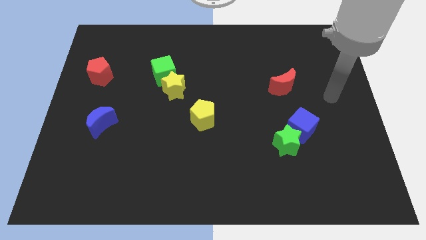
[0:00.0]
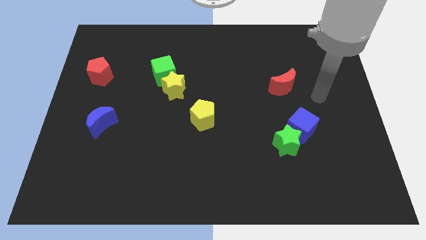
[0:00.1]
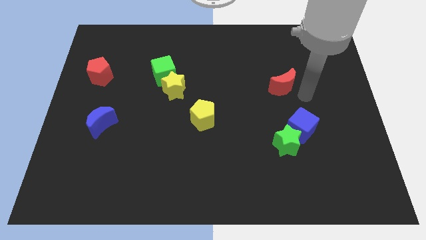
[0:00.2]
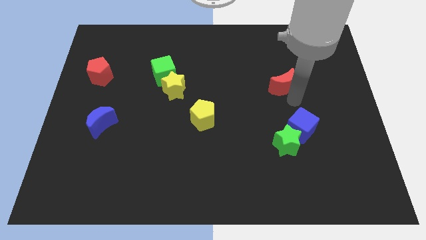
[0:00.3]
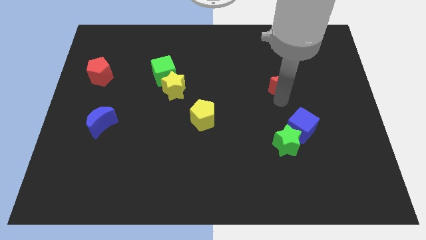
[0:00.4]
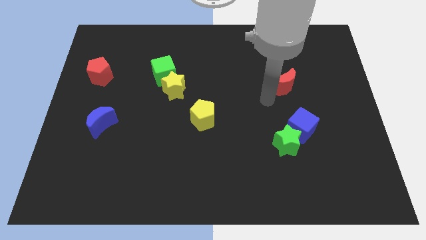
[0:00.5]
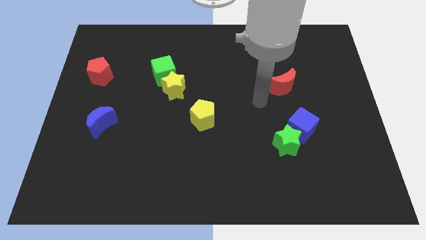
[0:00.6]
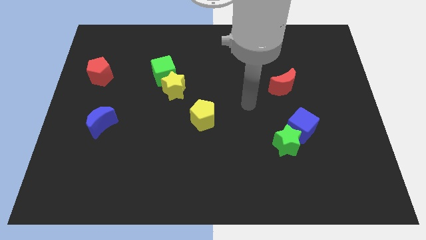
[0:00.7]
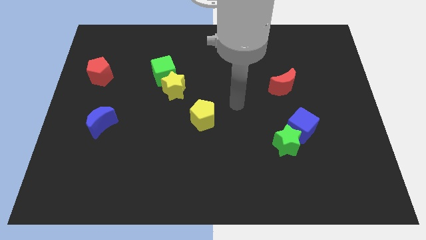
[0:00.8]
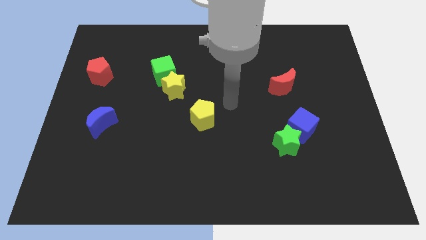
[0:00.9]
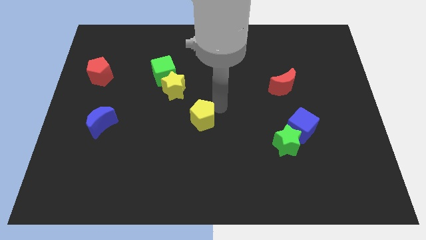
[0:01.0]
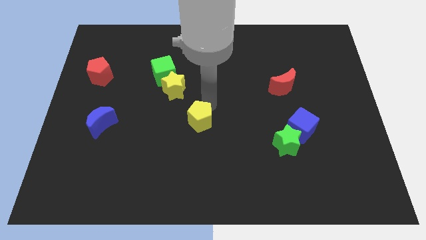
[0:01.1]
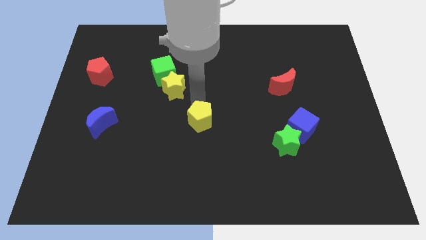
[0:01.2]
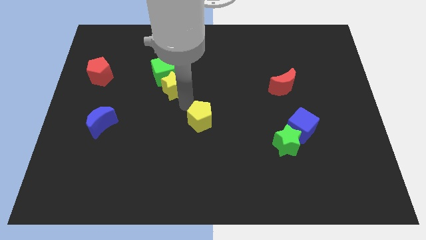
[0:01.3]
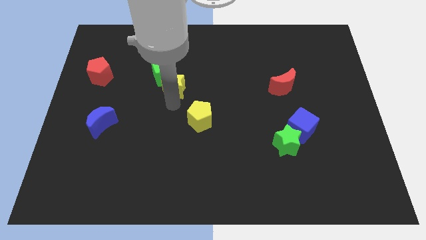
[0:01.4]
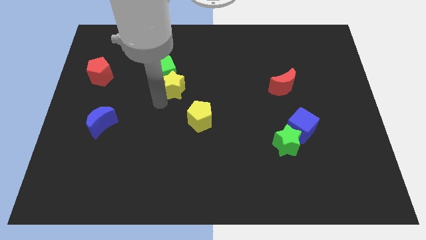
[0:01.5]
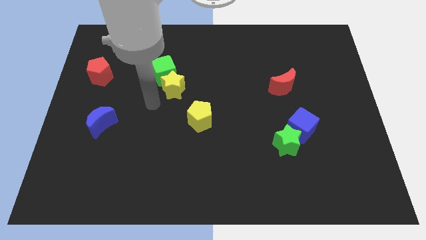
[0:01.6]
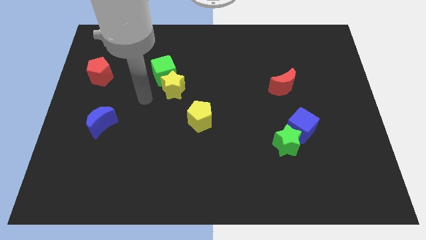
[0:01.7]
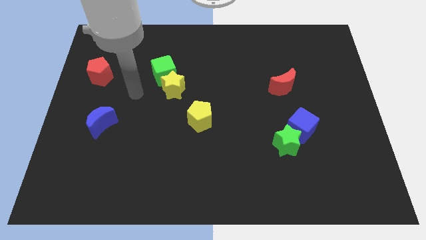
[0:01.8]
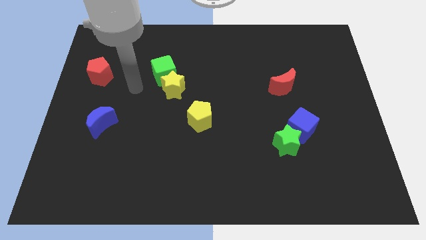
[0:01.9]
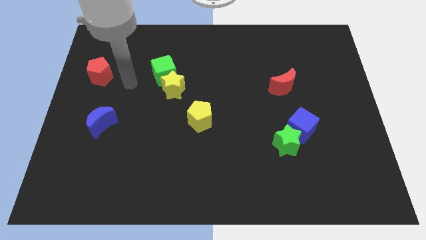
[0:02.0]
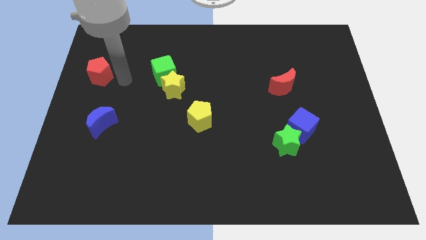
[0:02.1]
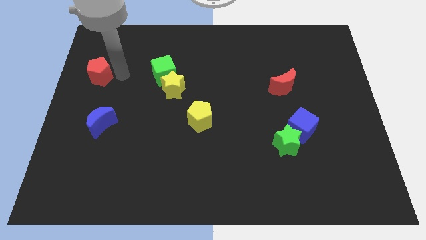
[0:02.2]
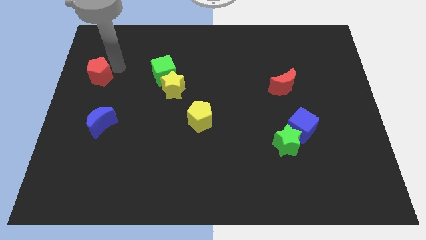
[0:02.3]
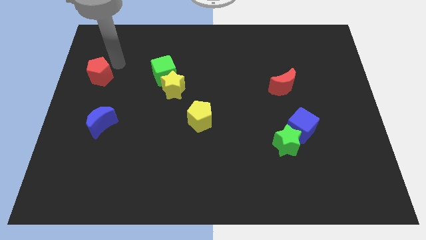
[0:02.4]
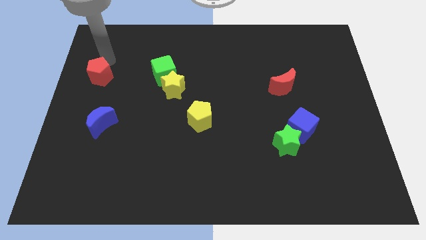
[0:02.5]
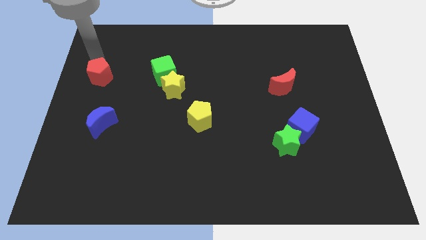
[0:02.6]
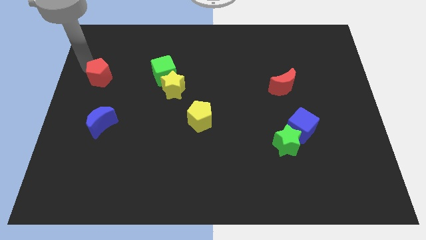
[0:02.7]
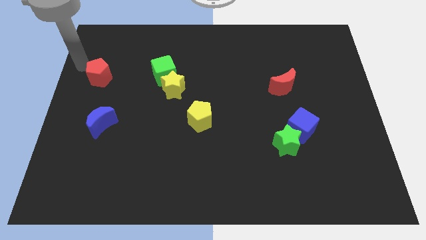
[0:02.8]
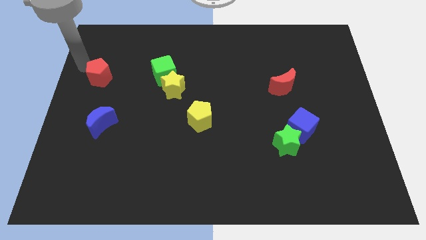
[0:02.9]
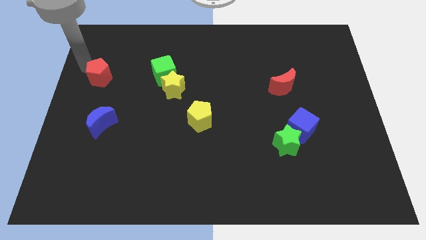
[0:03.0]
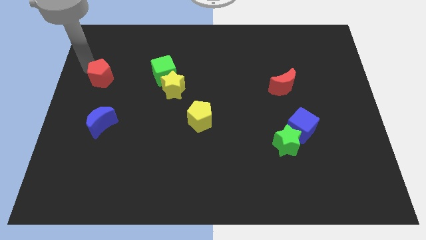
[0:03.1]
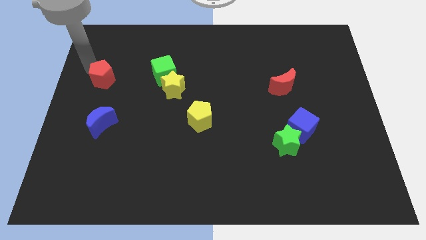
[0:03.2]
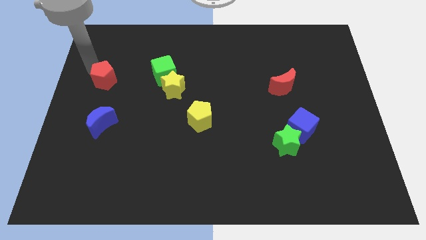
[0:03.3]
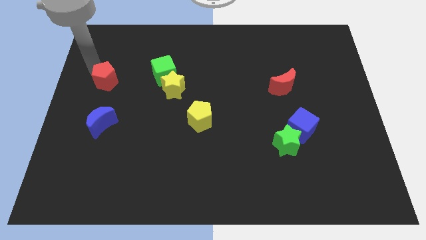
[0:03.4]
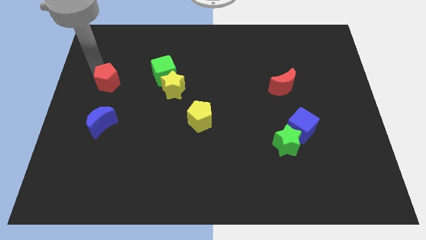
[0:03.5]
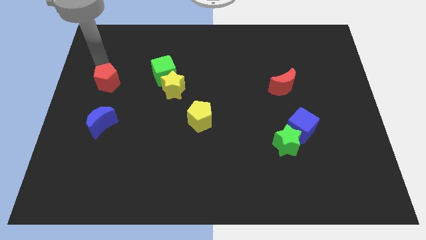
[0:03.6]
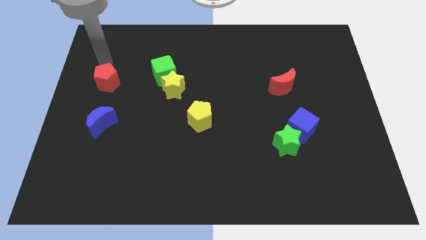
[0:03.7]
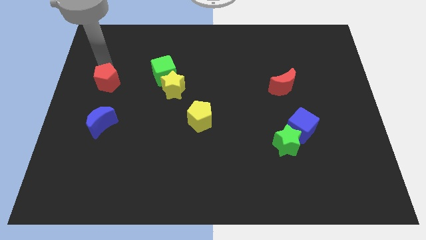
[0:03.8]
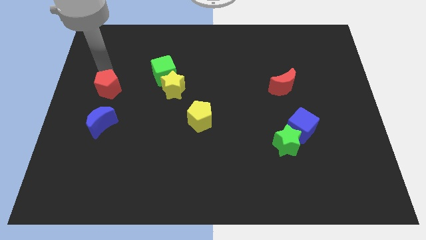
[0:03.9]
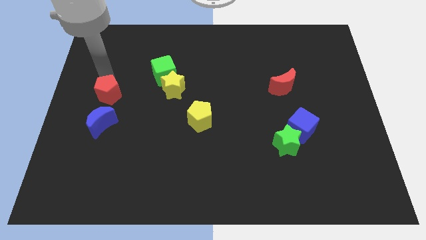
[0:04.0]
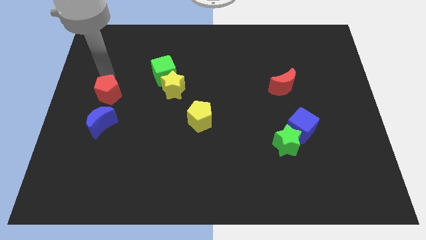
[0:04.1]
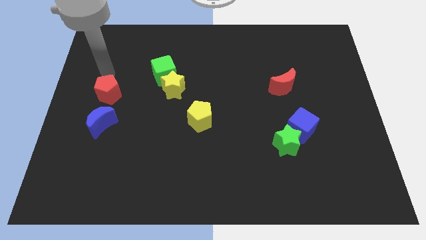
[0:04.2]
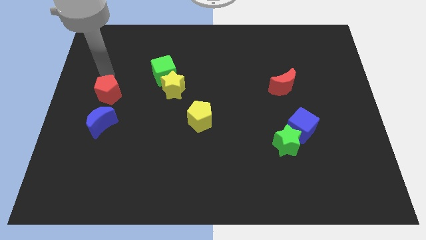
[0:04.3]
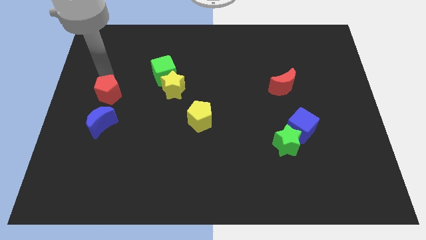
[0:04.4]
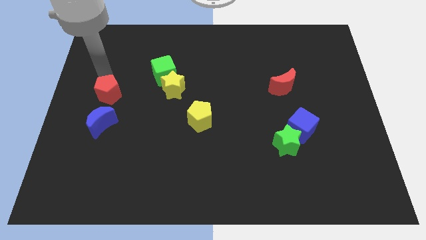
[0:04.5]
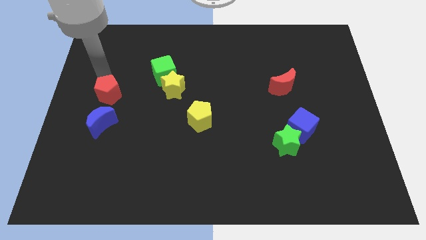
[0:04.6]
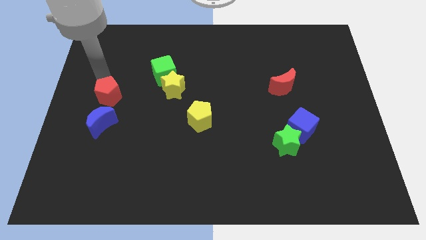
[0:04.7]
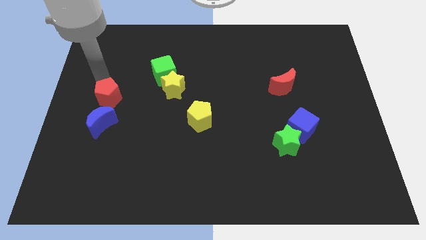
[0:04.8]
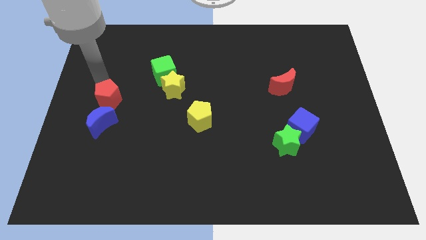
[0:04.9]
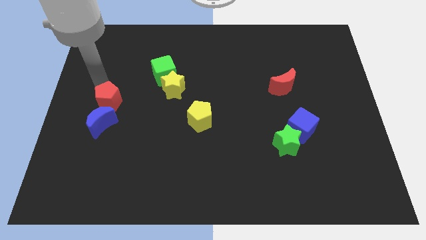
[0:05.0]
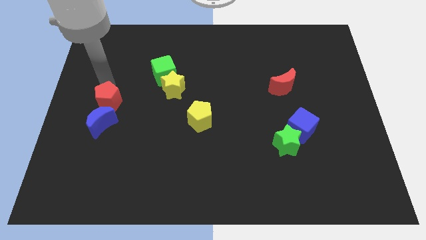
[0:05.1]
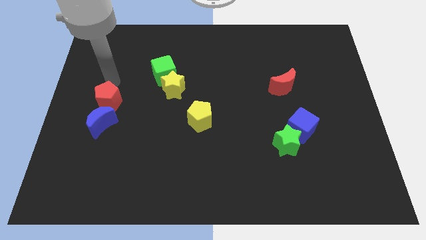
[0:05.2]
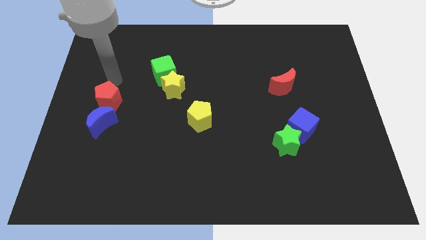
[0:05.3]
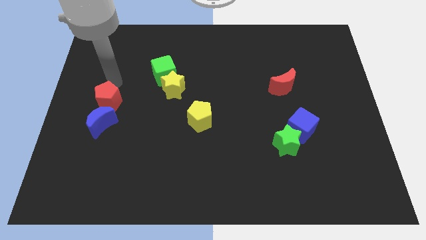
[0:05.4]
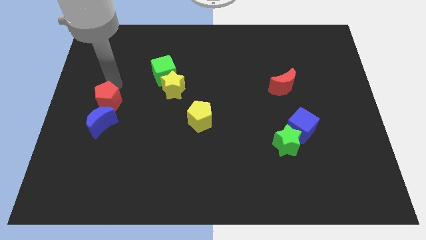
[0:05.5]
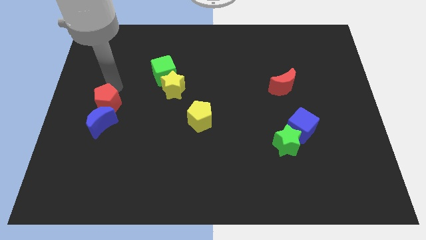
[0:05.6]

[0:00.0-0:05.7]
push the red pentagon towards the blue moon

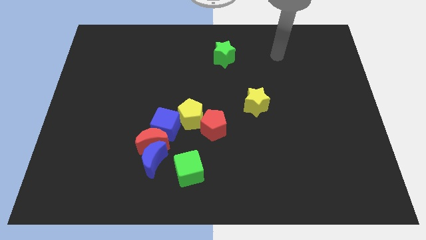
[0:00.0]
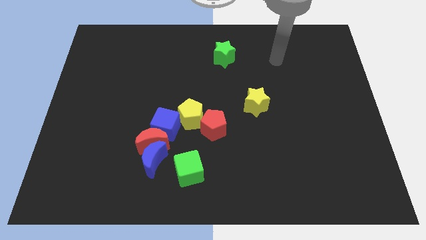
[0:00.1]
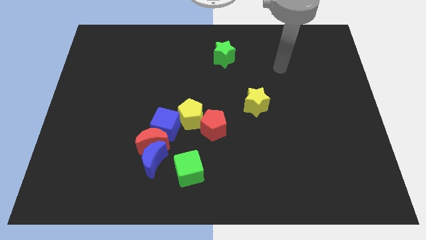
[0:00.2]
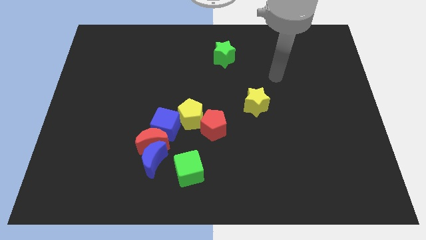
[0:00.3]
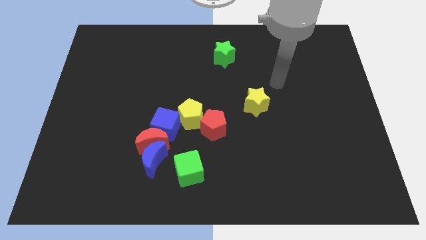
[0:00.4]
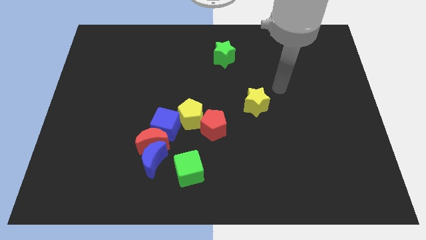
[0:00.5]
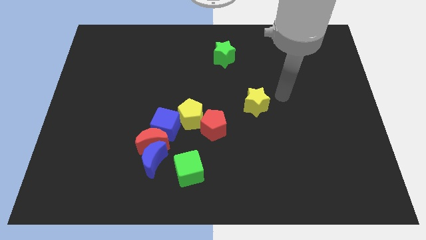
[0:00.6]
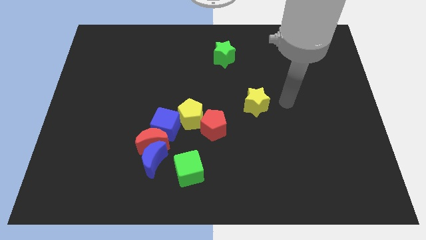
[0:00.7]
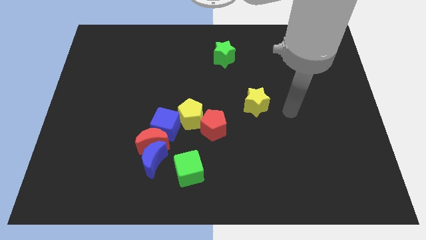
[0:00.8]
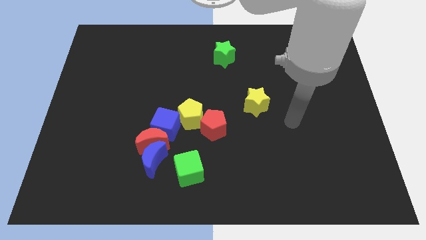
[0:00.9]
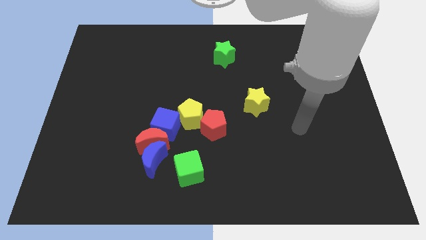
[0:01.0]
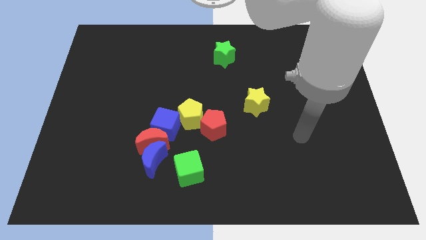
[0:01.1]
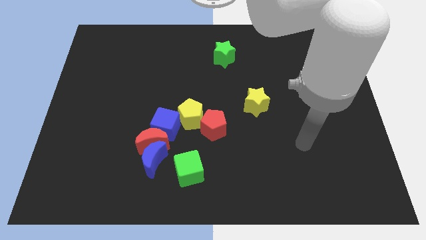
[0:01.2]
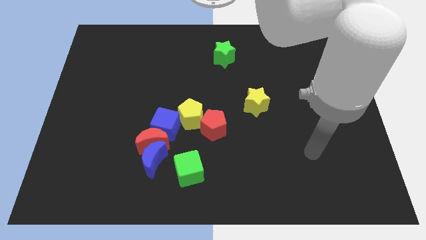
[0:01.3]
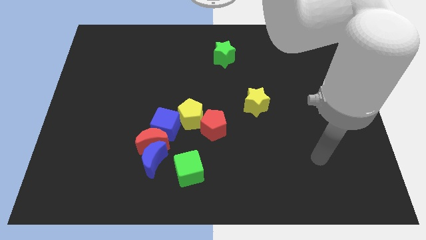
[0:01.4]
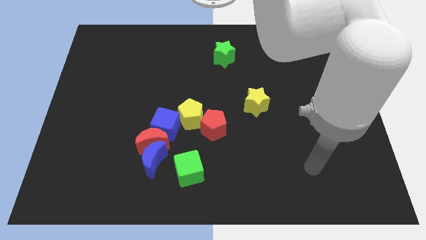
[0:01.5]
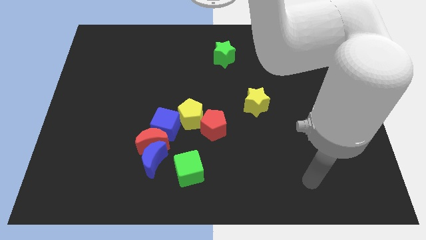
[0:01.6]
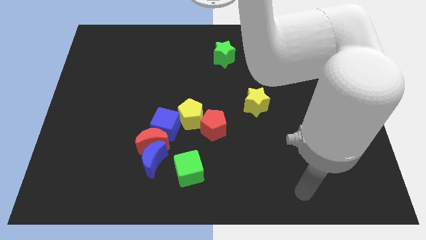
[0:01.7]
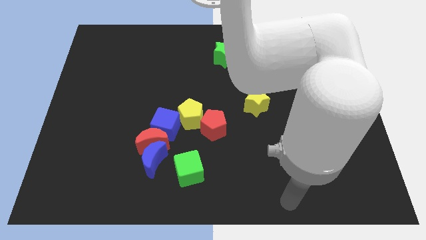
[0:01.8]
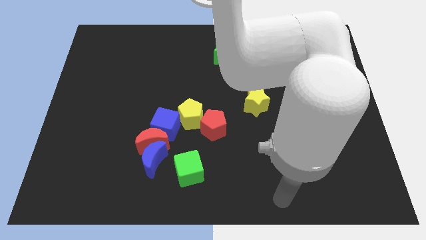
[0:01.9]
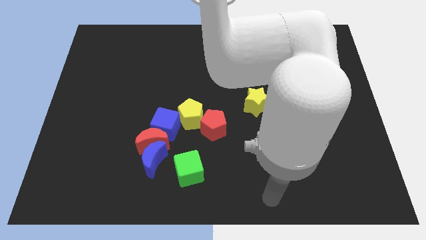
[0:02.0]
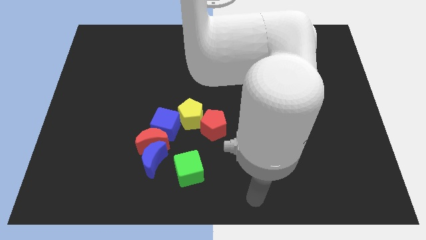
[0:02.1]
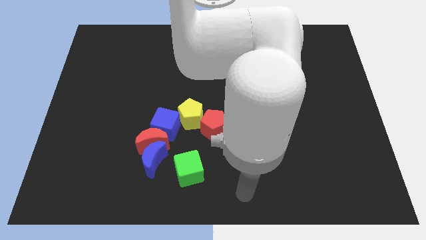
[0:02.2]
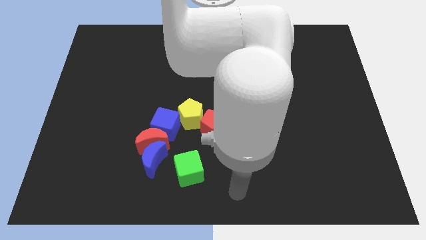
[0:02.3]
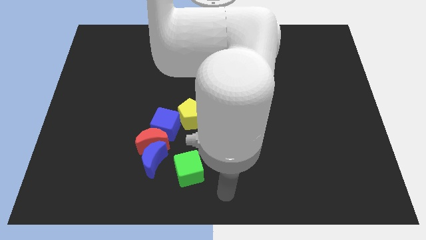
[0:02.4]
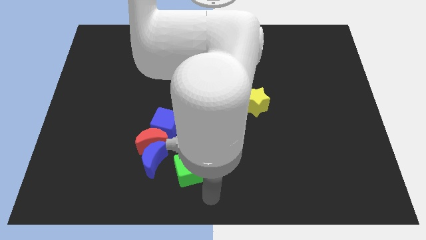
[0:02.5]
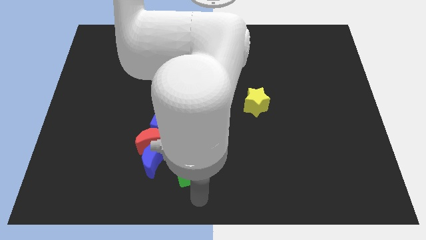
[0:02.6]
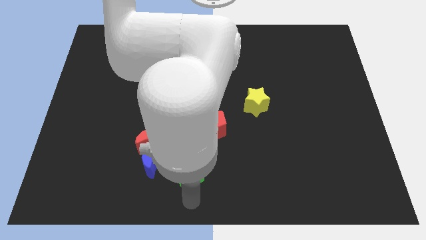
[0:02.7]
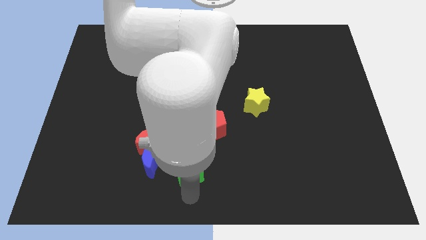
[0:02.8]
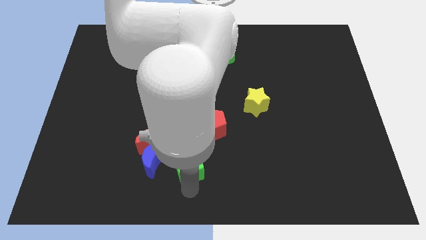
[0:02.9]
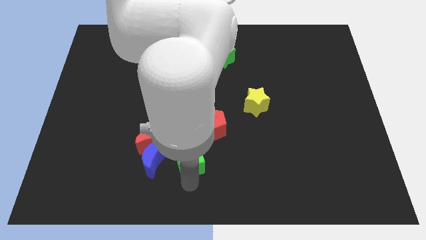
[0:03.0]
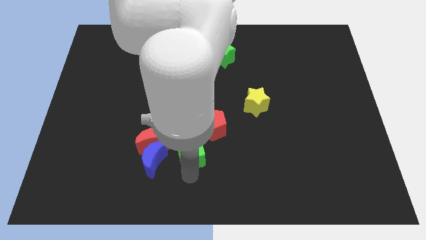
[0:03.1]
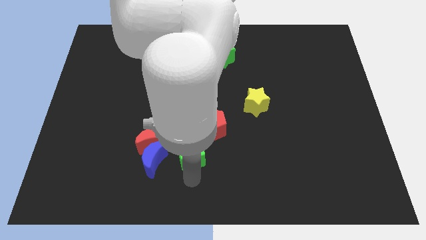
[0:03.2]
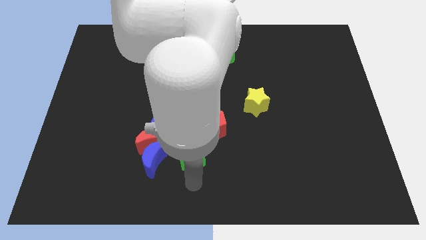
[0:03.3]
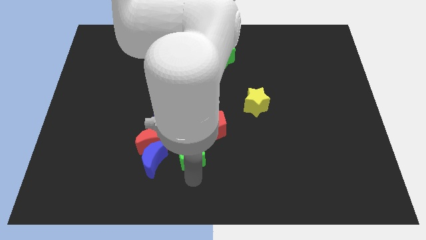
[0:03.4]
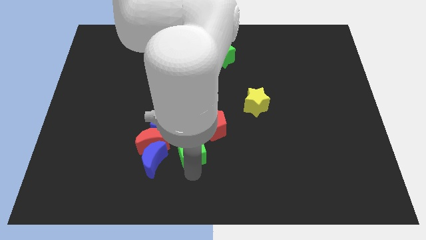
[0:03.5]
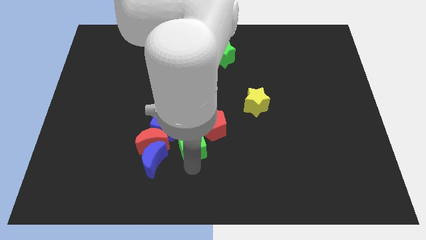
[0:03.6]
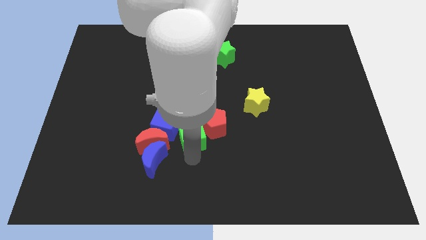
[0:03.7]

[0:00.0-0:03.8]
slide the green cube close to the yellow pentagon
